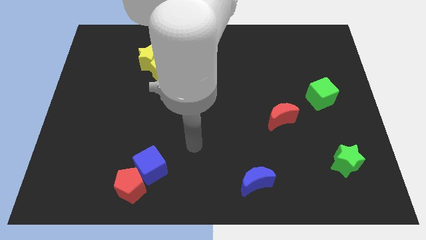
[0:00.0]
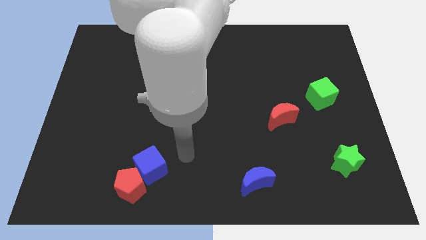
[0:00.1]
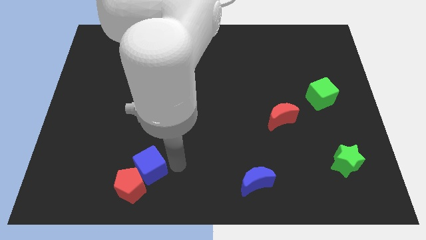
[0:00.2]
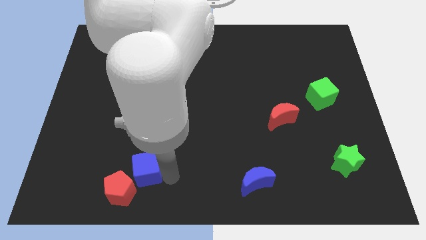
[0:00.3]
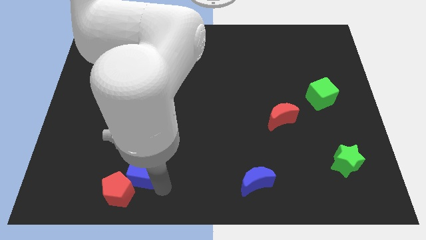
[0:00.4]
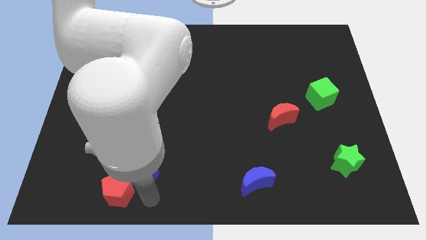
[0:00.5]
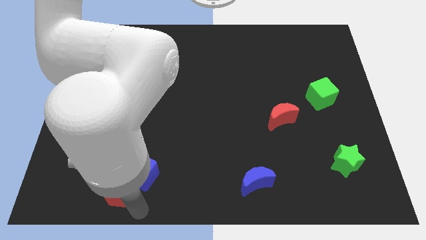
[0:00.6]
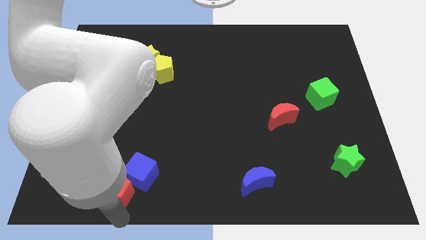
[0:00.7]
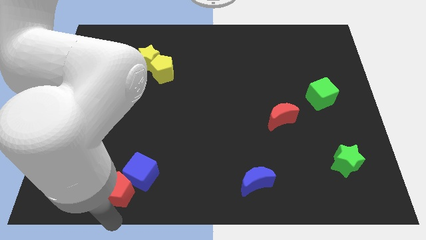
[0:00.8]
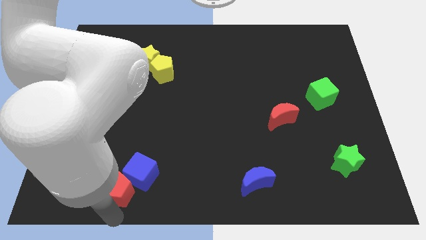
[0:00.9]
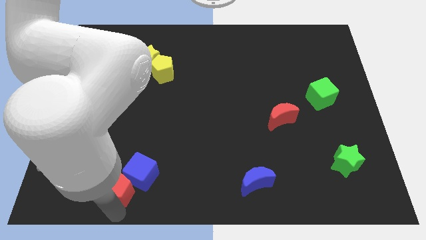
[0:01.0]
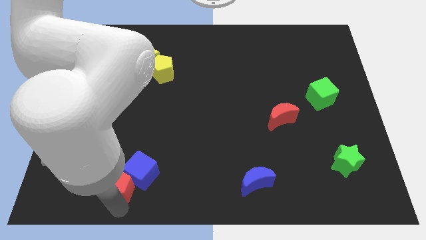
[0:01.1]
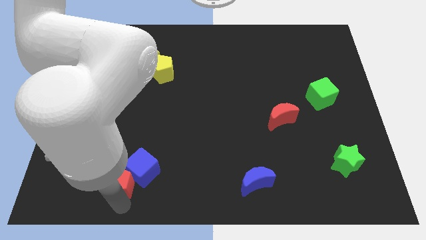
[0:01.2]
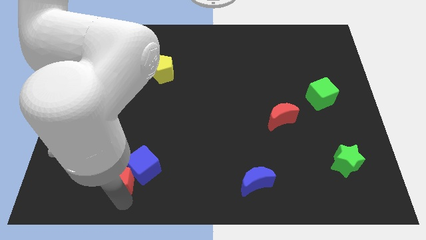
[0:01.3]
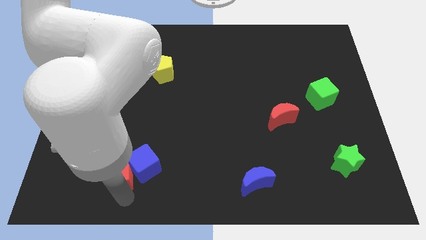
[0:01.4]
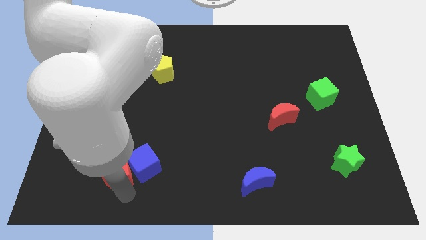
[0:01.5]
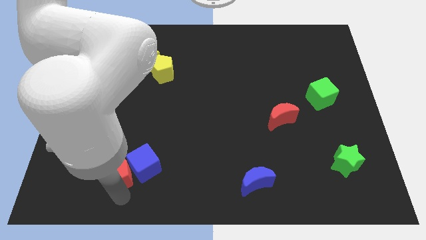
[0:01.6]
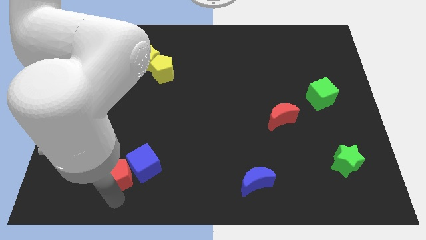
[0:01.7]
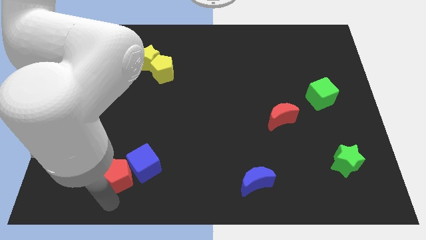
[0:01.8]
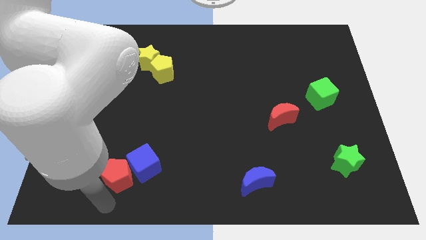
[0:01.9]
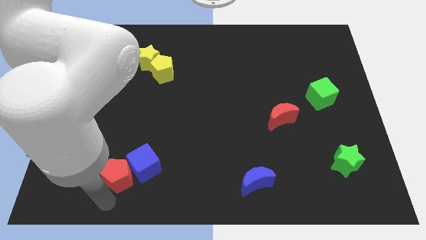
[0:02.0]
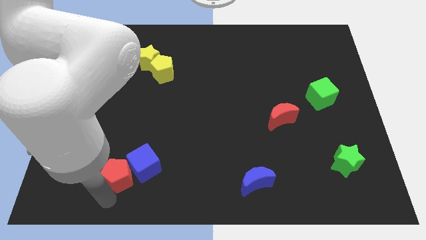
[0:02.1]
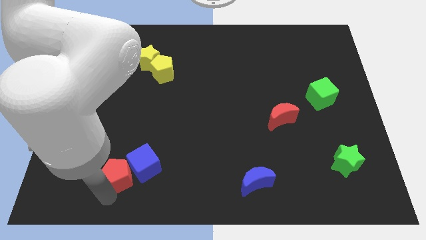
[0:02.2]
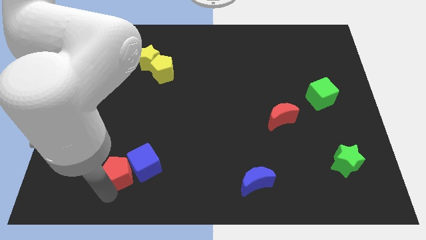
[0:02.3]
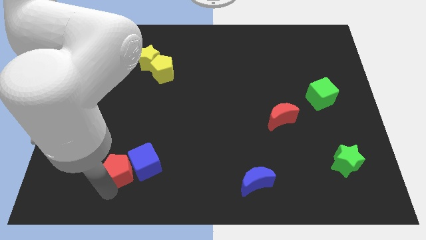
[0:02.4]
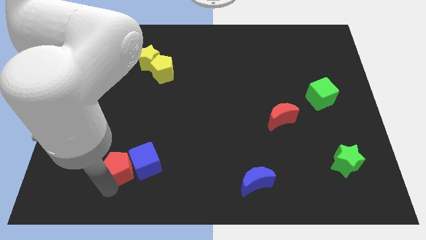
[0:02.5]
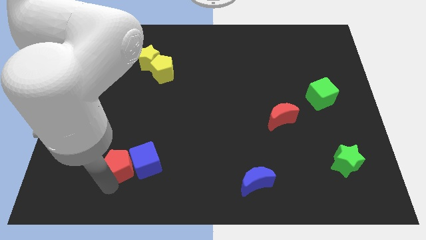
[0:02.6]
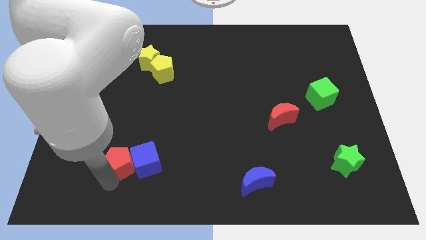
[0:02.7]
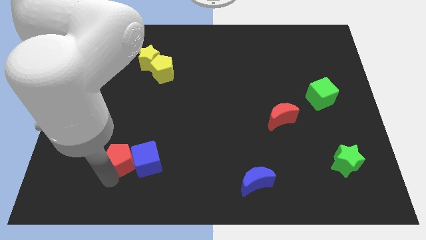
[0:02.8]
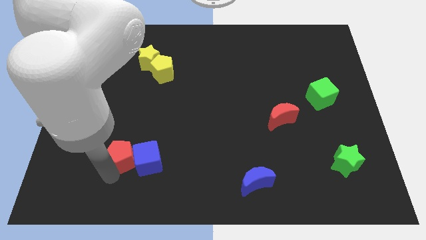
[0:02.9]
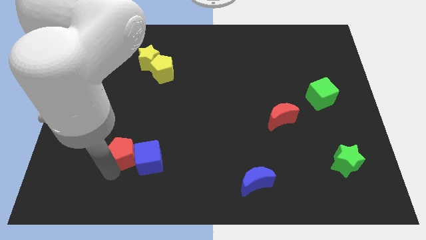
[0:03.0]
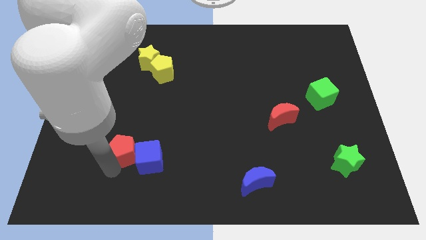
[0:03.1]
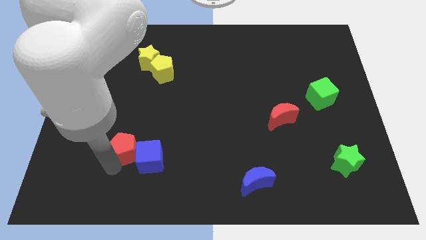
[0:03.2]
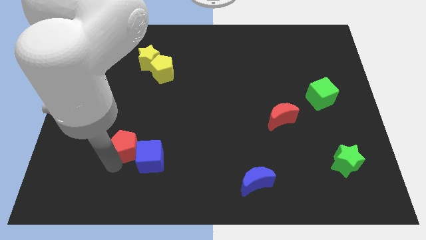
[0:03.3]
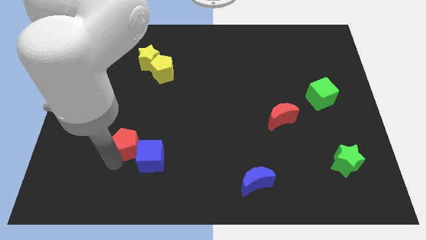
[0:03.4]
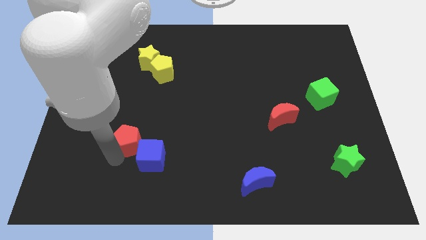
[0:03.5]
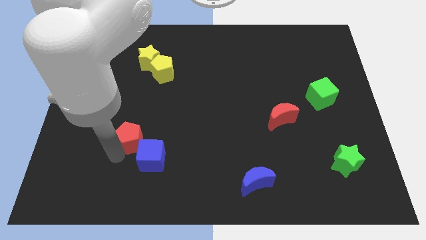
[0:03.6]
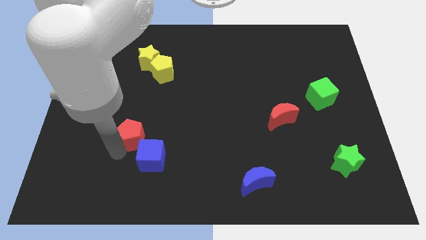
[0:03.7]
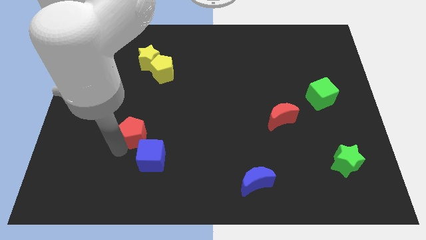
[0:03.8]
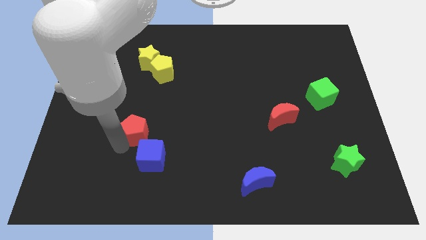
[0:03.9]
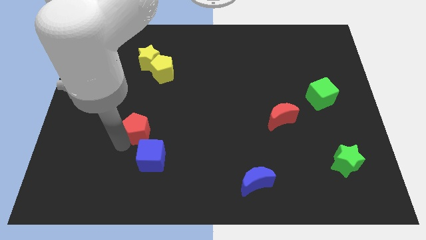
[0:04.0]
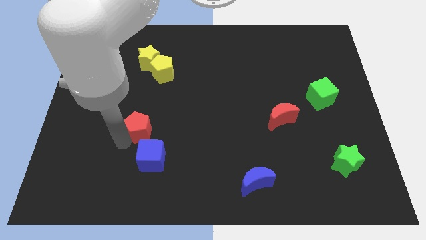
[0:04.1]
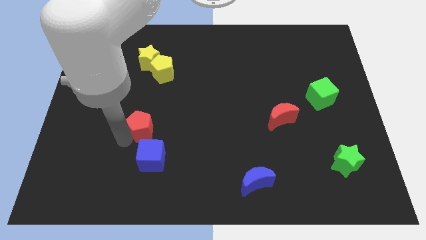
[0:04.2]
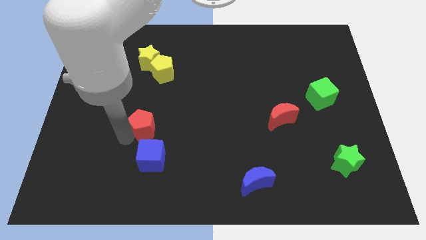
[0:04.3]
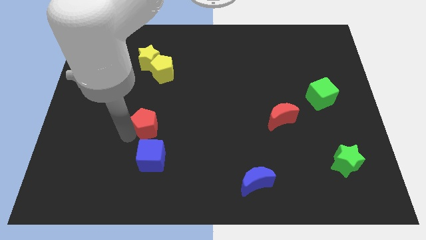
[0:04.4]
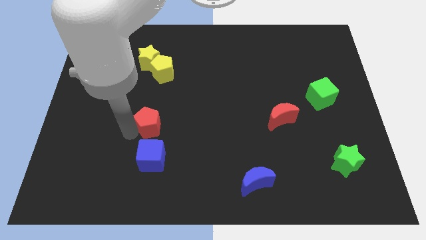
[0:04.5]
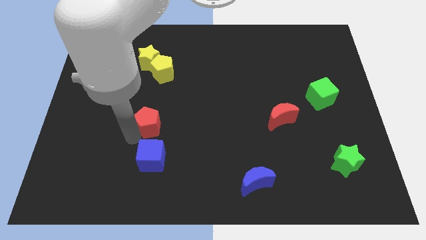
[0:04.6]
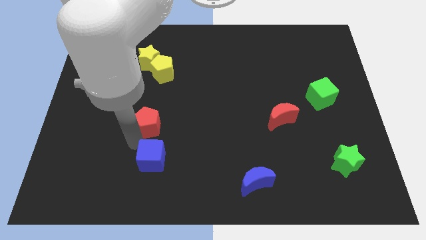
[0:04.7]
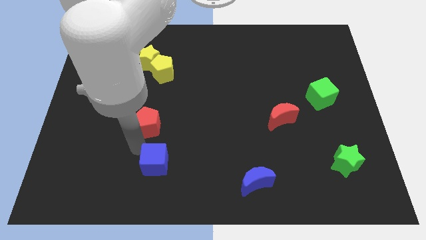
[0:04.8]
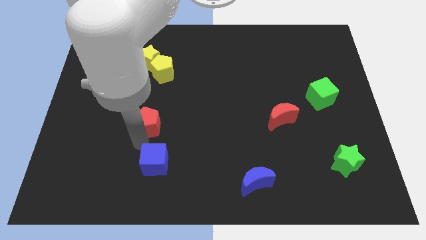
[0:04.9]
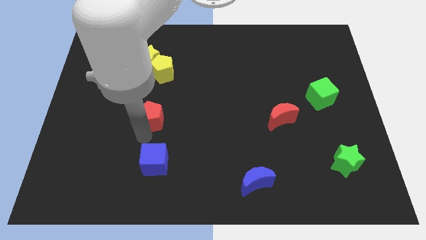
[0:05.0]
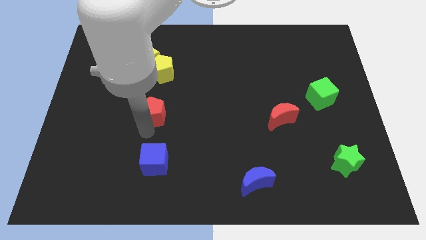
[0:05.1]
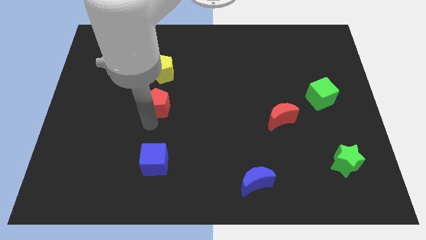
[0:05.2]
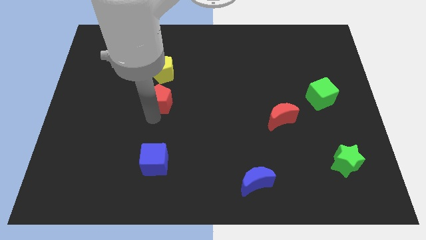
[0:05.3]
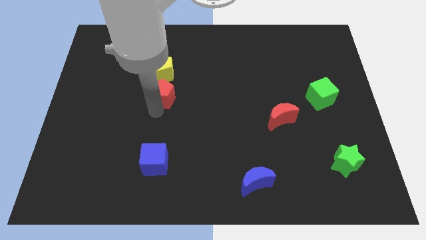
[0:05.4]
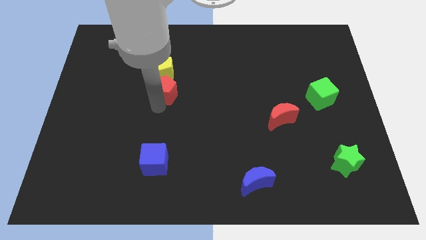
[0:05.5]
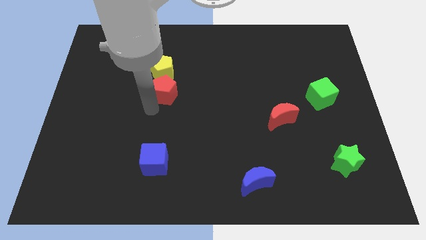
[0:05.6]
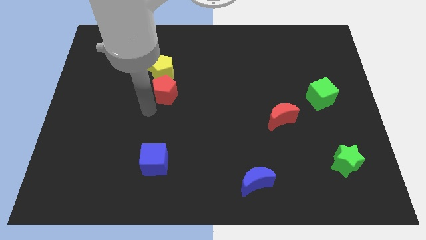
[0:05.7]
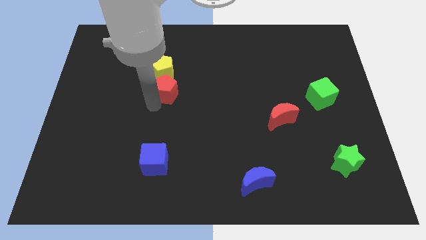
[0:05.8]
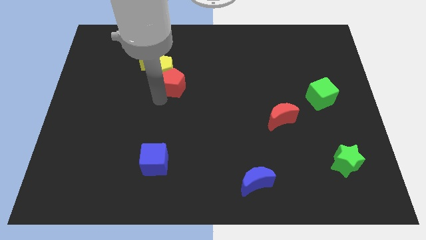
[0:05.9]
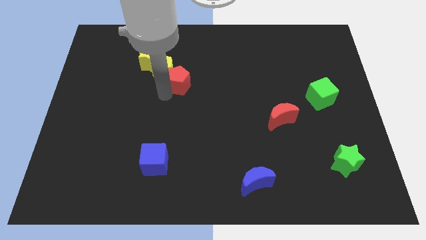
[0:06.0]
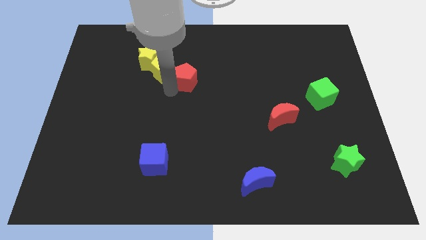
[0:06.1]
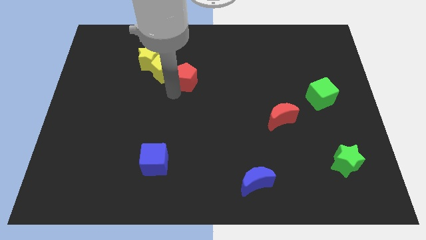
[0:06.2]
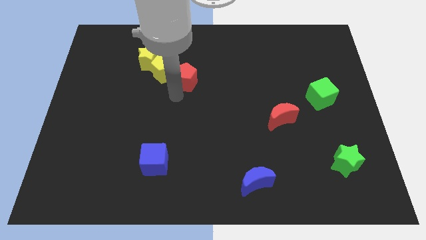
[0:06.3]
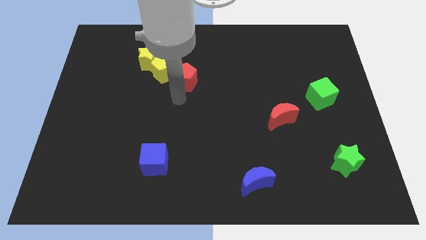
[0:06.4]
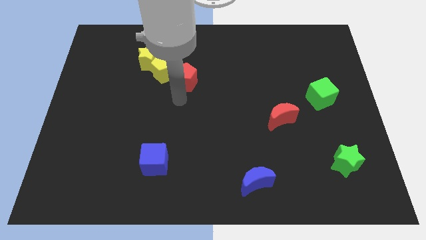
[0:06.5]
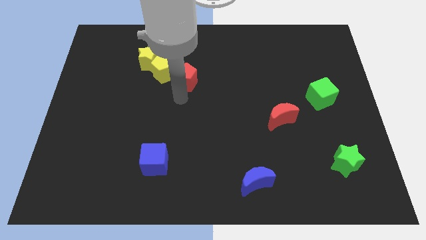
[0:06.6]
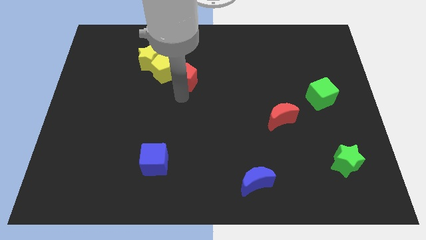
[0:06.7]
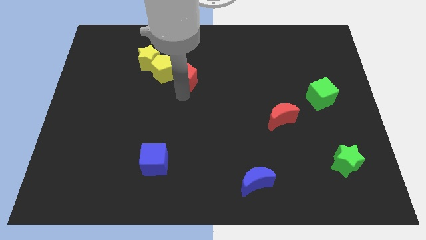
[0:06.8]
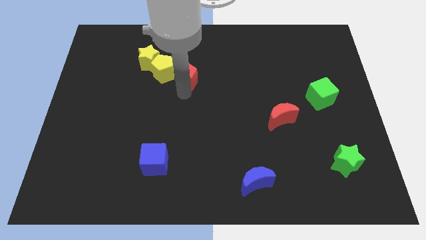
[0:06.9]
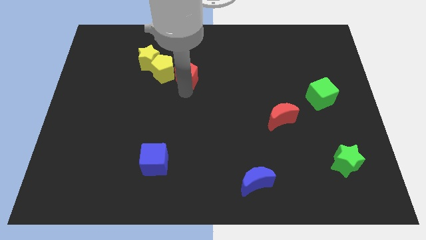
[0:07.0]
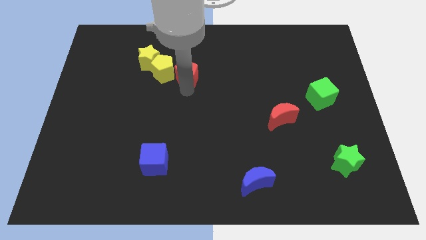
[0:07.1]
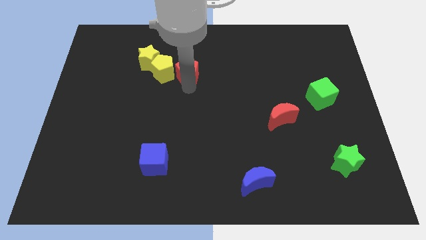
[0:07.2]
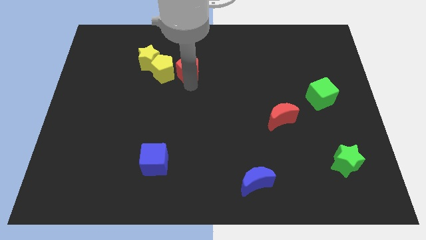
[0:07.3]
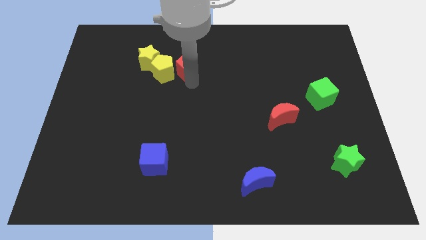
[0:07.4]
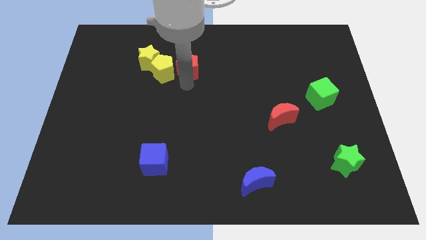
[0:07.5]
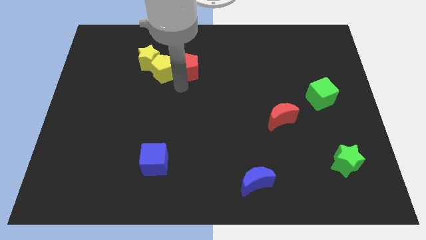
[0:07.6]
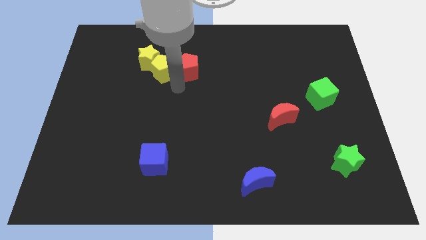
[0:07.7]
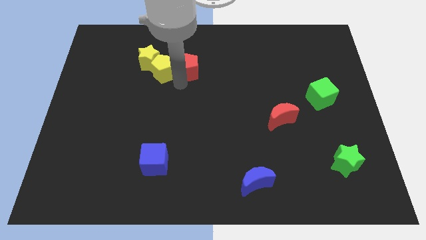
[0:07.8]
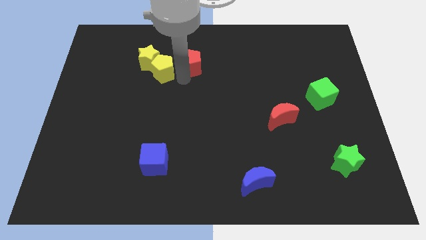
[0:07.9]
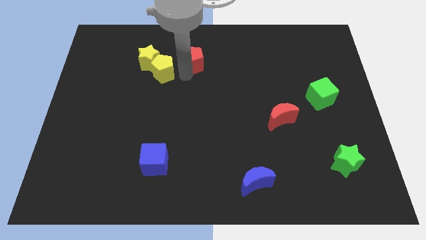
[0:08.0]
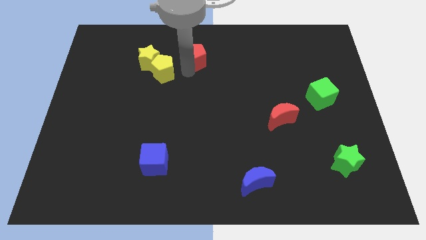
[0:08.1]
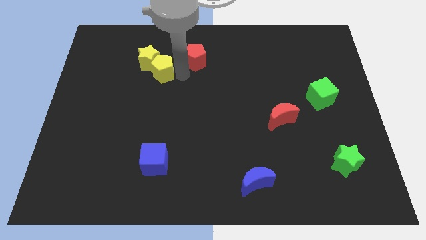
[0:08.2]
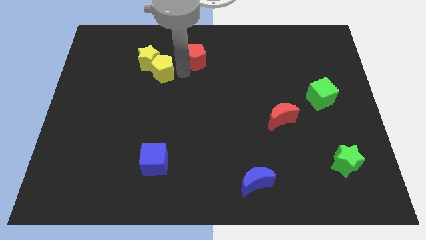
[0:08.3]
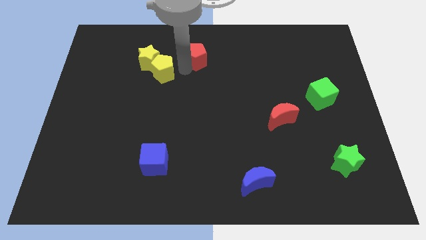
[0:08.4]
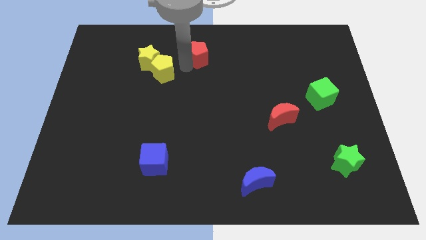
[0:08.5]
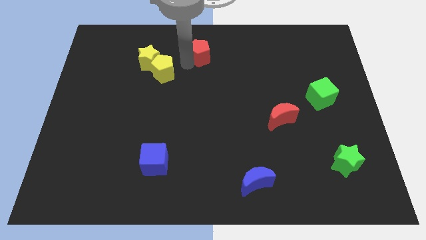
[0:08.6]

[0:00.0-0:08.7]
push the red pentagon to the towards your base
